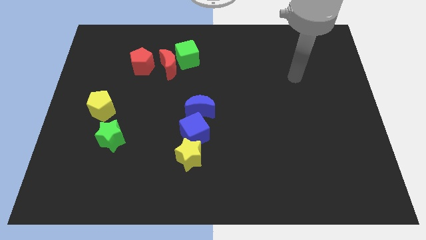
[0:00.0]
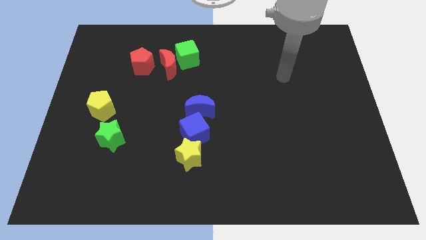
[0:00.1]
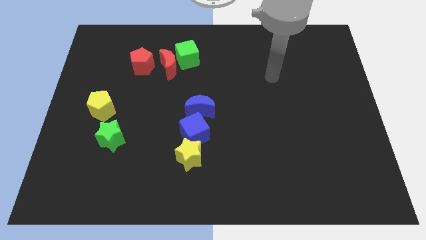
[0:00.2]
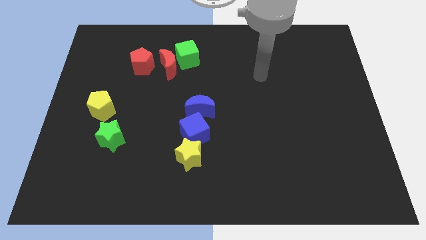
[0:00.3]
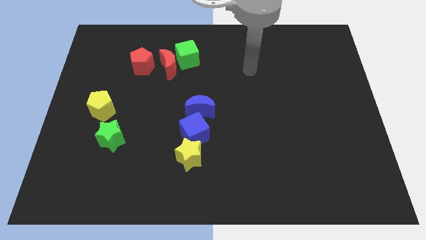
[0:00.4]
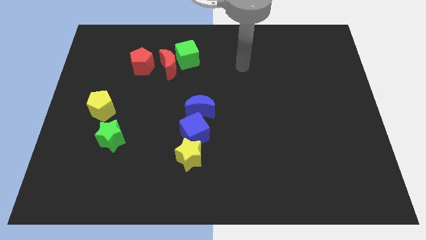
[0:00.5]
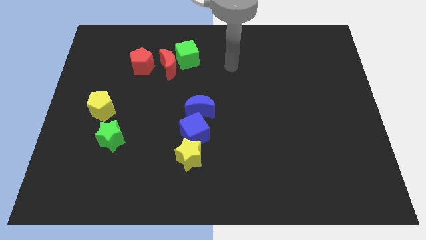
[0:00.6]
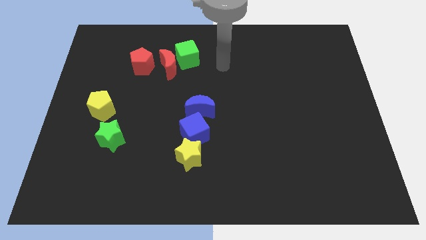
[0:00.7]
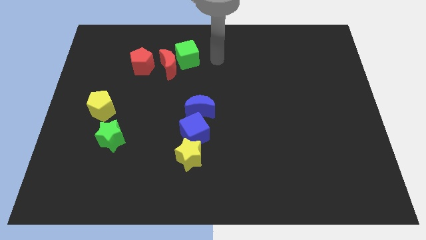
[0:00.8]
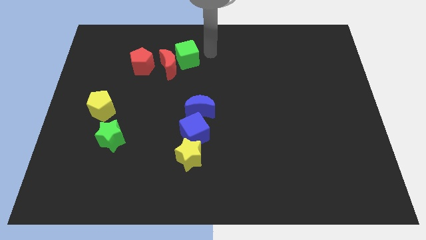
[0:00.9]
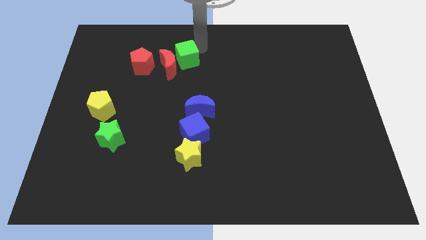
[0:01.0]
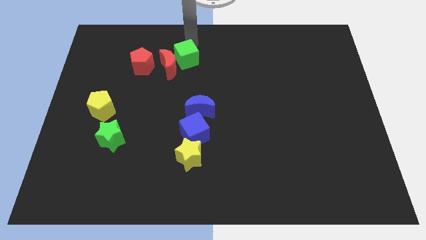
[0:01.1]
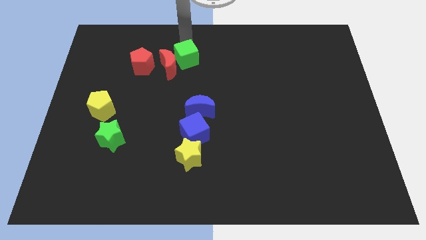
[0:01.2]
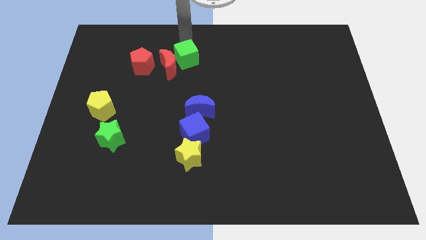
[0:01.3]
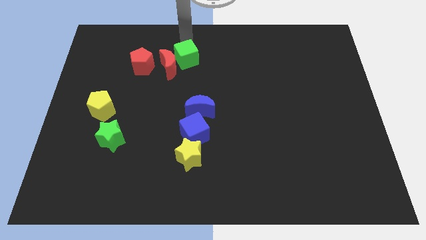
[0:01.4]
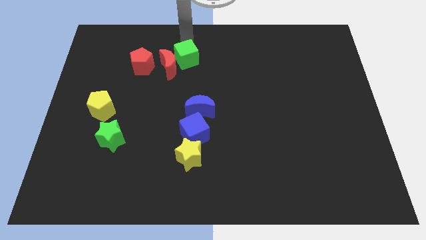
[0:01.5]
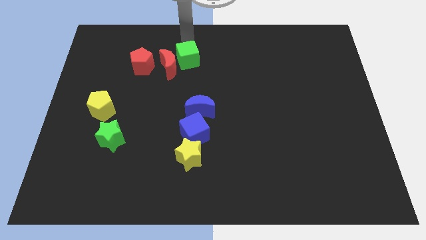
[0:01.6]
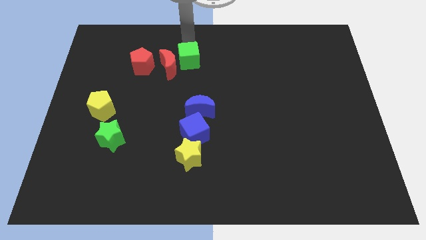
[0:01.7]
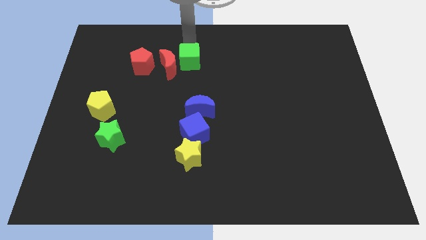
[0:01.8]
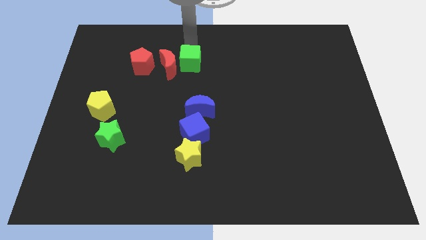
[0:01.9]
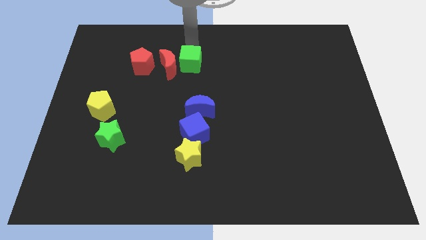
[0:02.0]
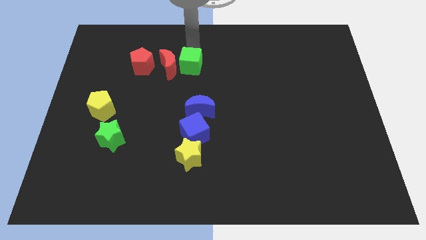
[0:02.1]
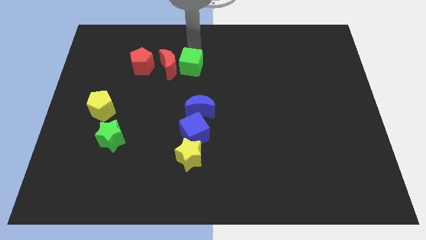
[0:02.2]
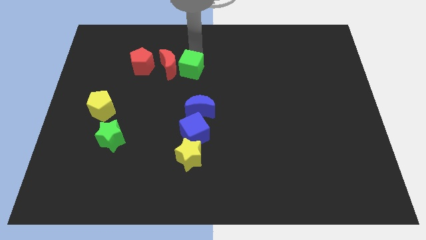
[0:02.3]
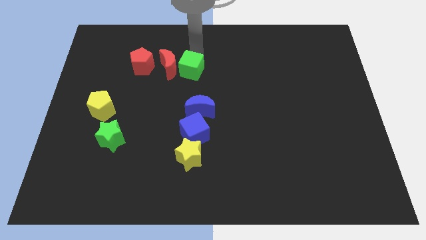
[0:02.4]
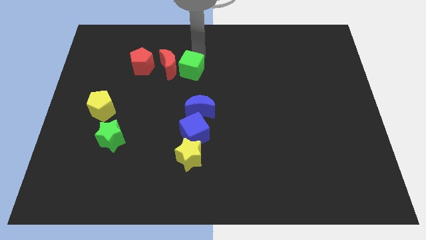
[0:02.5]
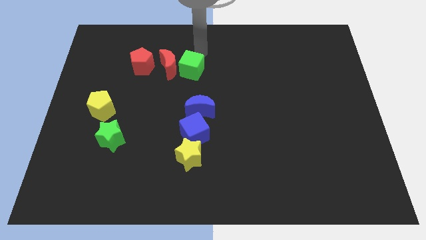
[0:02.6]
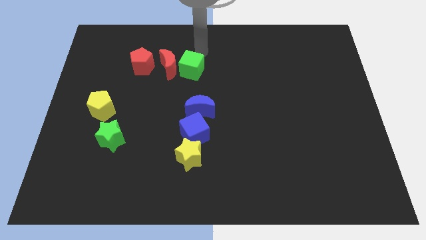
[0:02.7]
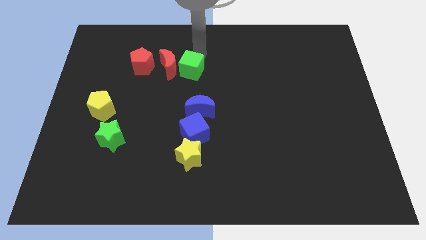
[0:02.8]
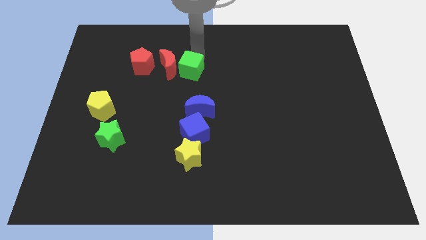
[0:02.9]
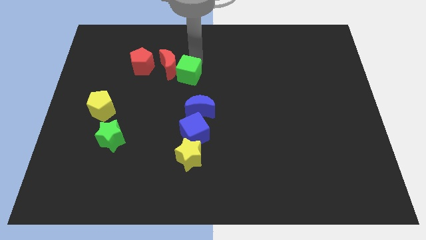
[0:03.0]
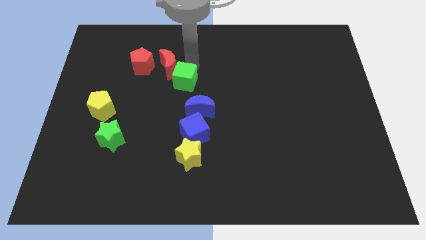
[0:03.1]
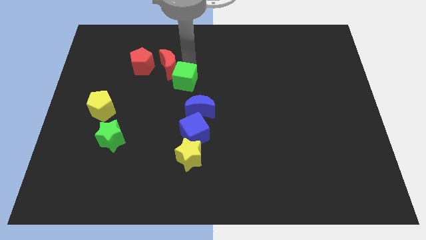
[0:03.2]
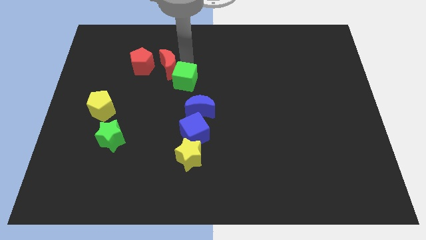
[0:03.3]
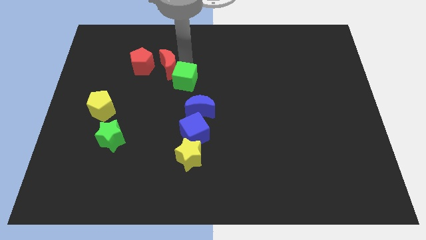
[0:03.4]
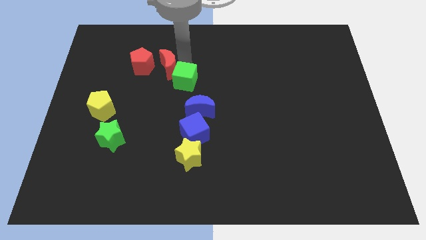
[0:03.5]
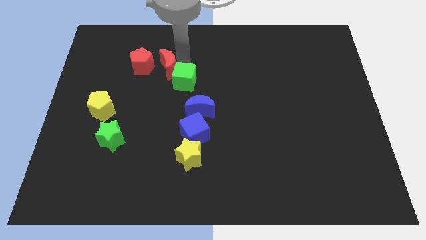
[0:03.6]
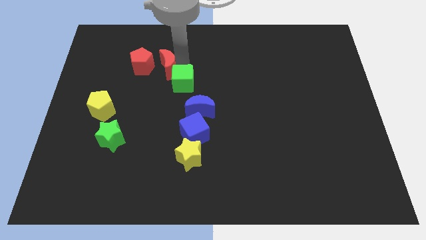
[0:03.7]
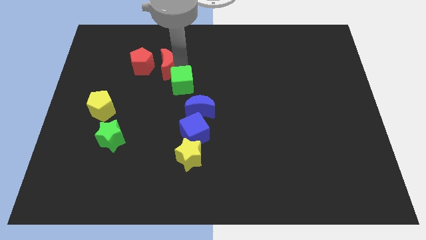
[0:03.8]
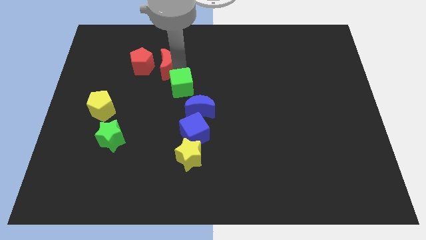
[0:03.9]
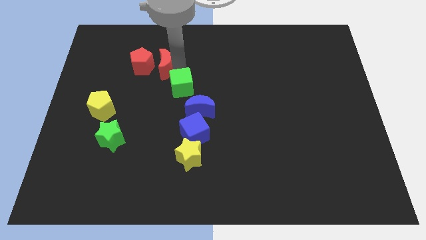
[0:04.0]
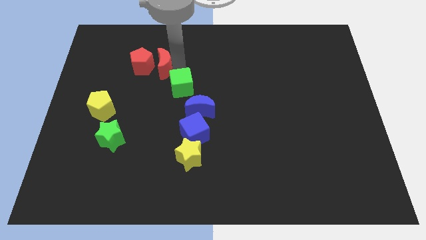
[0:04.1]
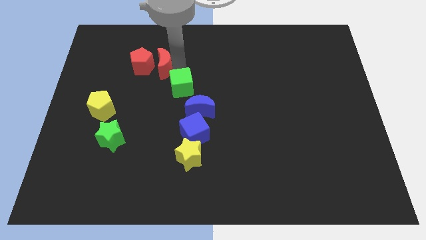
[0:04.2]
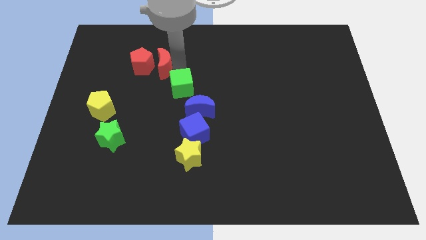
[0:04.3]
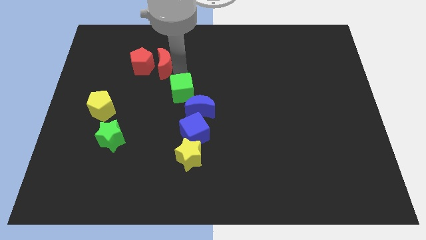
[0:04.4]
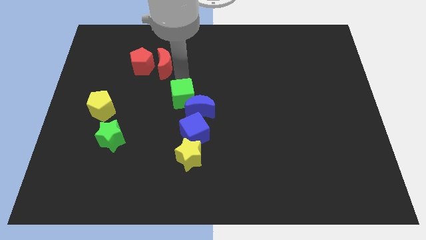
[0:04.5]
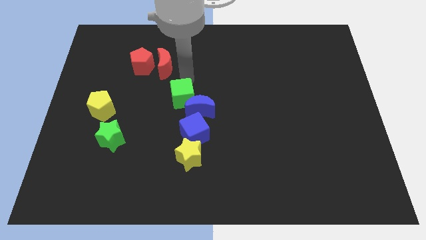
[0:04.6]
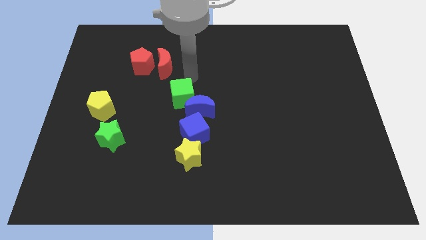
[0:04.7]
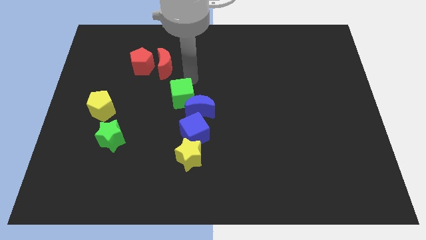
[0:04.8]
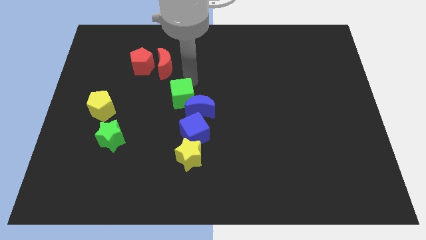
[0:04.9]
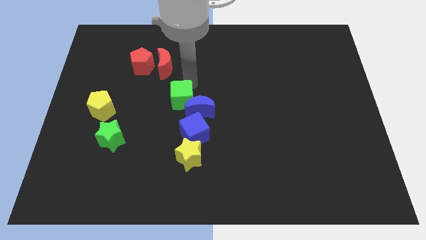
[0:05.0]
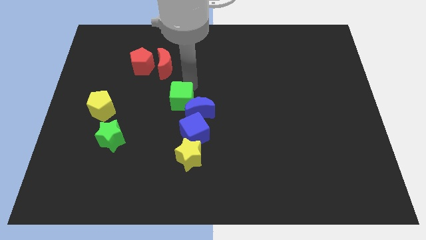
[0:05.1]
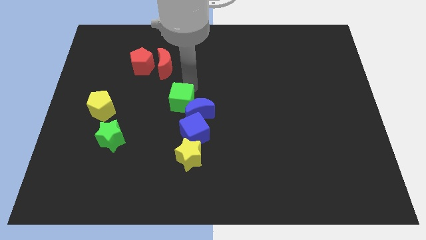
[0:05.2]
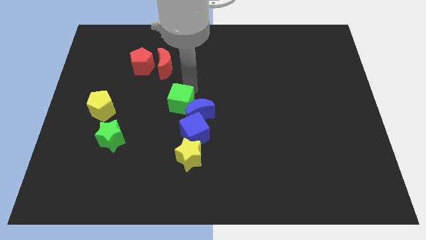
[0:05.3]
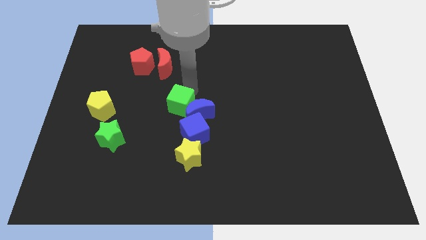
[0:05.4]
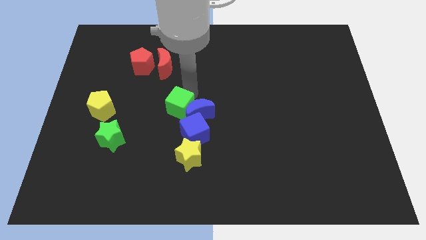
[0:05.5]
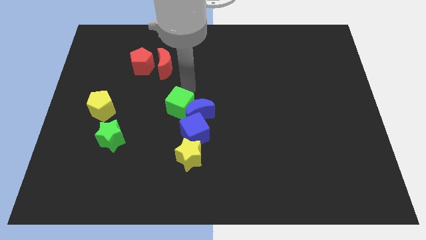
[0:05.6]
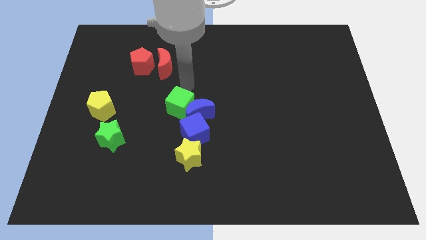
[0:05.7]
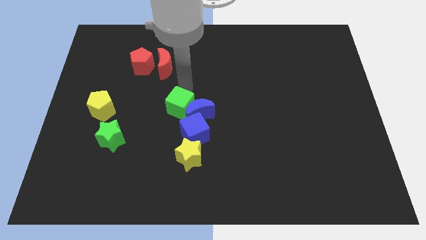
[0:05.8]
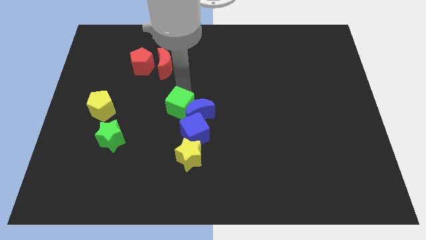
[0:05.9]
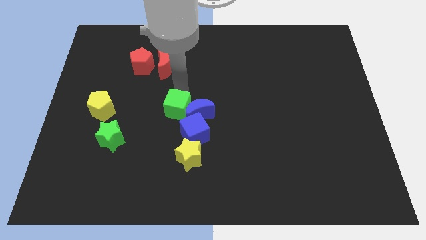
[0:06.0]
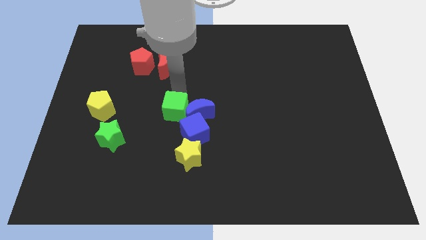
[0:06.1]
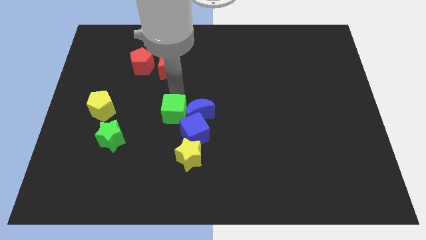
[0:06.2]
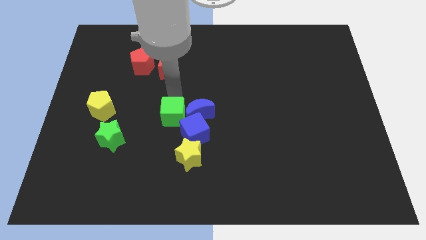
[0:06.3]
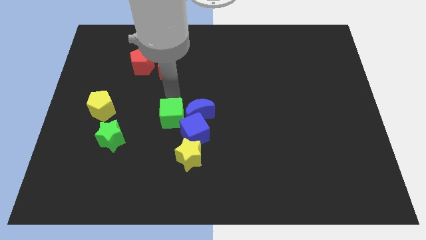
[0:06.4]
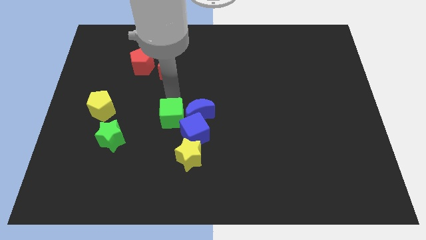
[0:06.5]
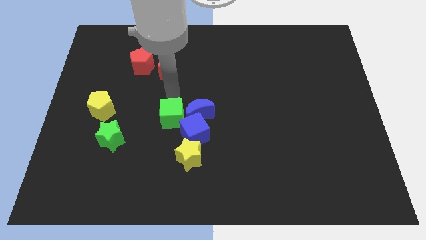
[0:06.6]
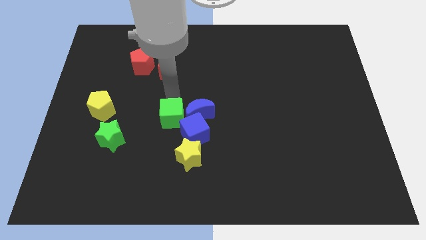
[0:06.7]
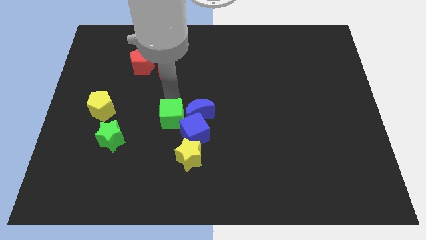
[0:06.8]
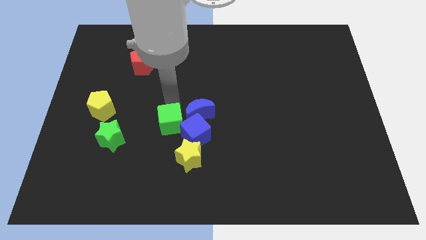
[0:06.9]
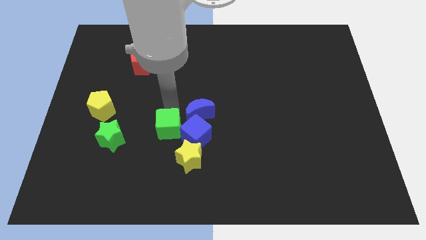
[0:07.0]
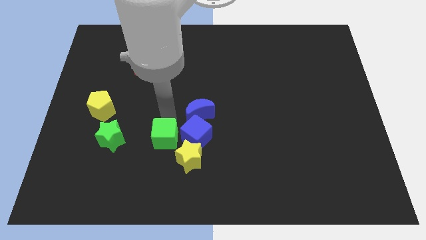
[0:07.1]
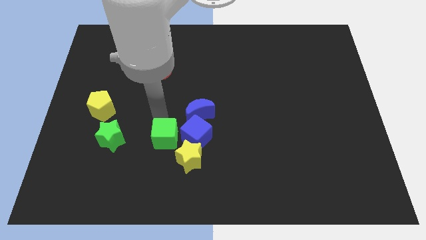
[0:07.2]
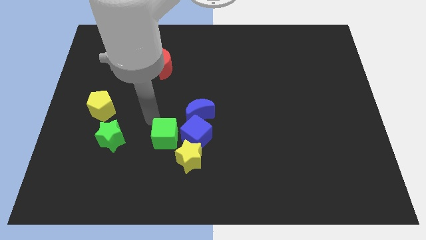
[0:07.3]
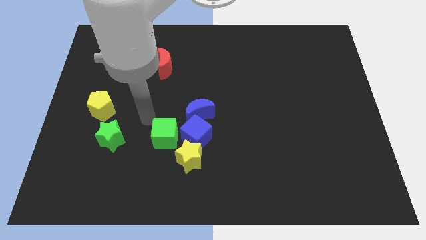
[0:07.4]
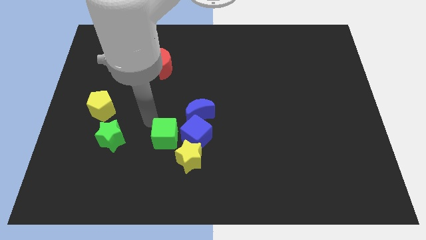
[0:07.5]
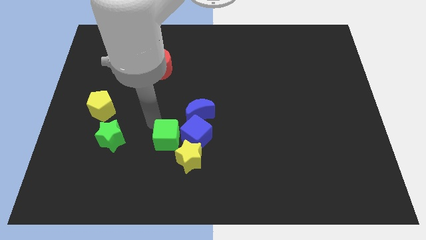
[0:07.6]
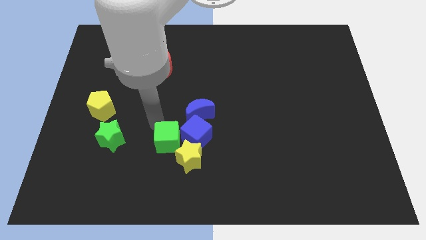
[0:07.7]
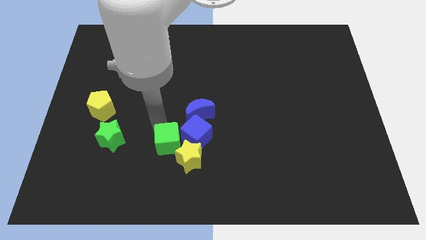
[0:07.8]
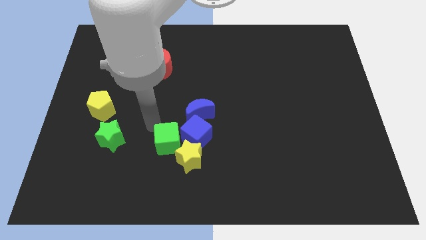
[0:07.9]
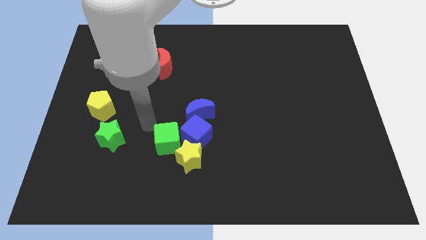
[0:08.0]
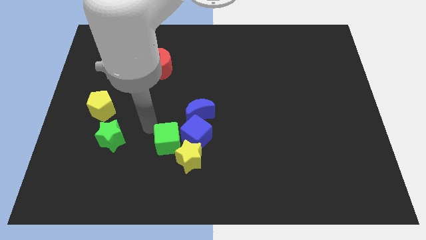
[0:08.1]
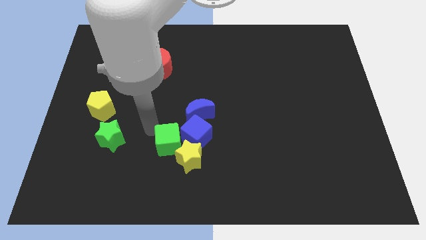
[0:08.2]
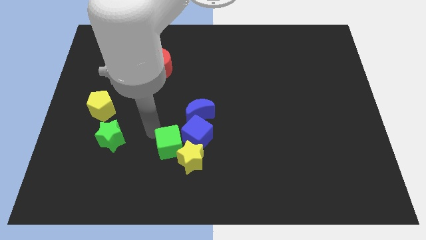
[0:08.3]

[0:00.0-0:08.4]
put the green cube towards the yellow star
